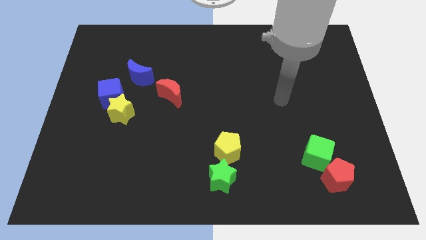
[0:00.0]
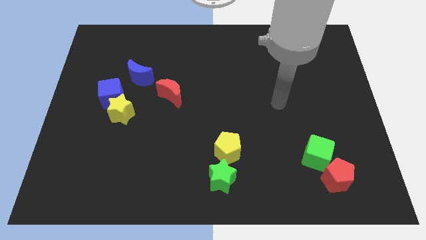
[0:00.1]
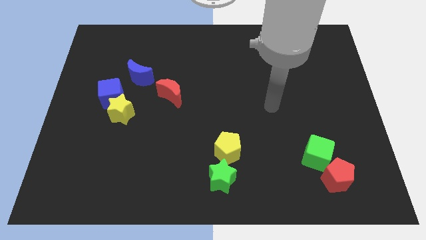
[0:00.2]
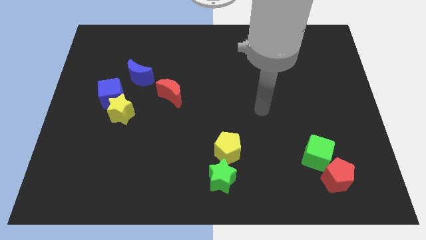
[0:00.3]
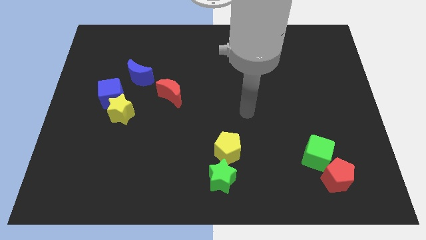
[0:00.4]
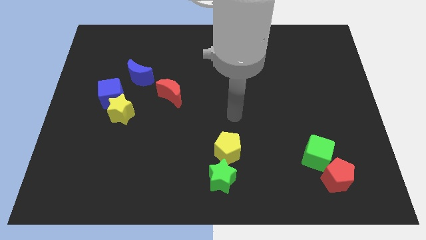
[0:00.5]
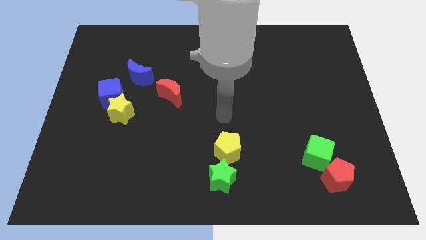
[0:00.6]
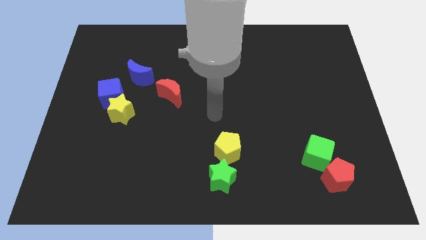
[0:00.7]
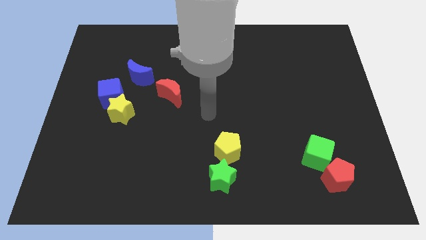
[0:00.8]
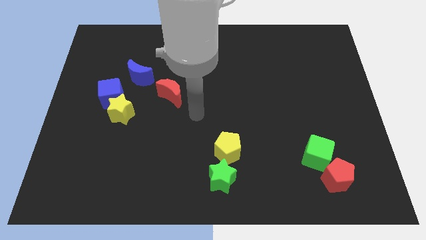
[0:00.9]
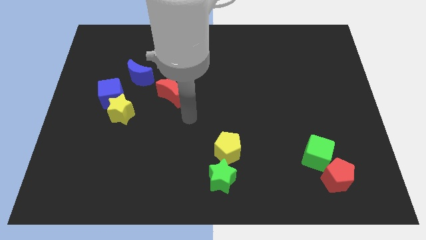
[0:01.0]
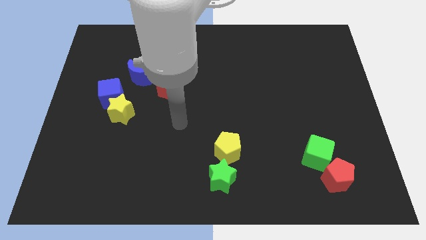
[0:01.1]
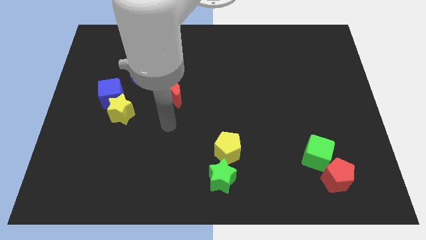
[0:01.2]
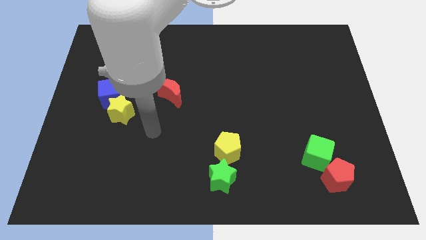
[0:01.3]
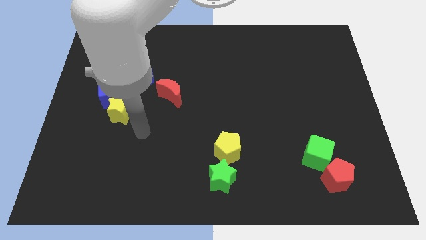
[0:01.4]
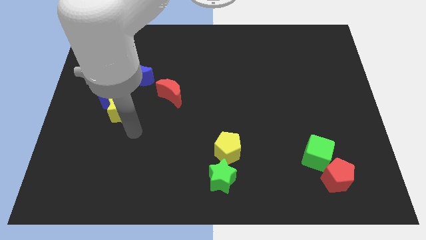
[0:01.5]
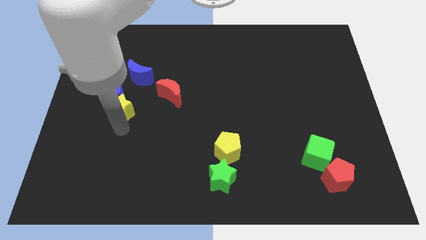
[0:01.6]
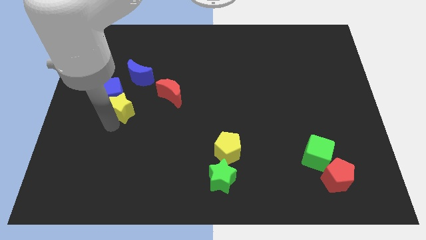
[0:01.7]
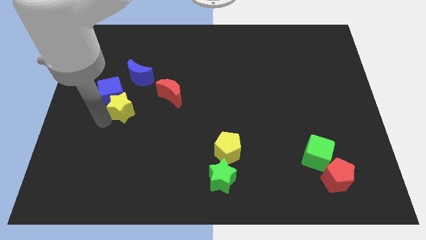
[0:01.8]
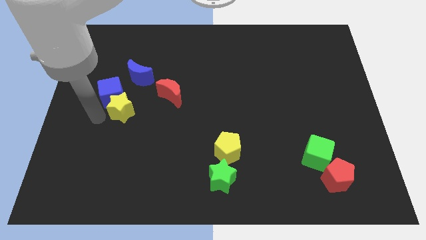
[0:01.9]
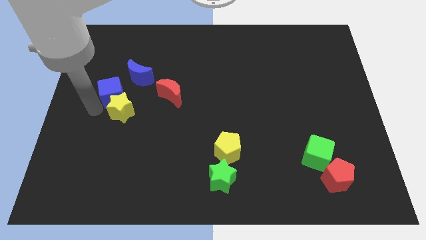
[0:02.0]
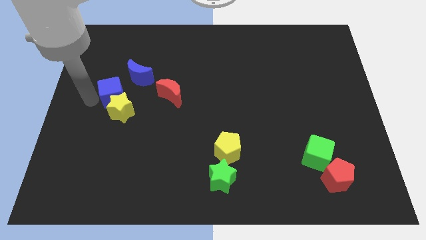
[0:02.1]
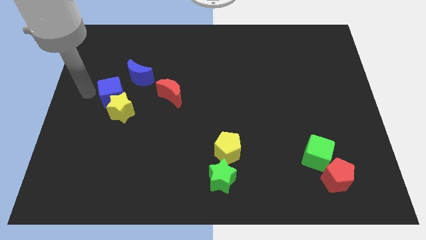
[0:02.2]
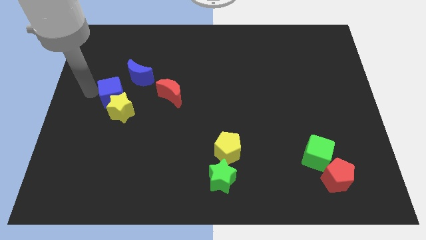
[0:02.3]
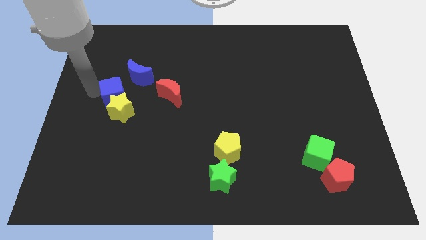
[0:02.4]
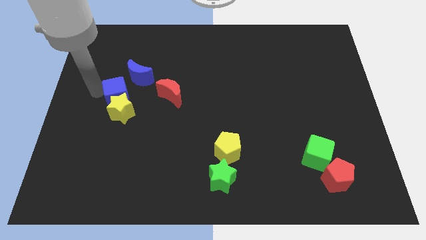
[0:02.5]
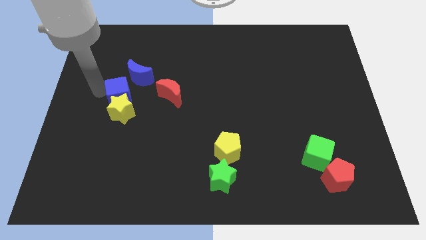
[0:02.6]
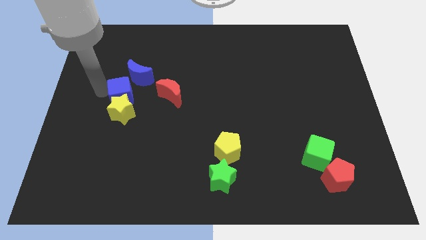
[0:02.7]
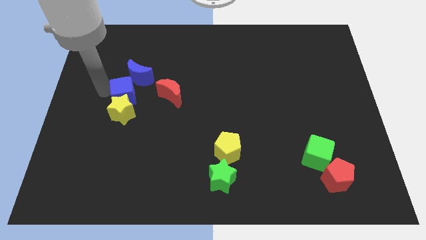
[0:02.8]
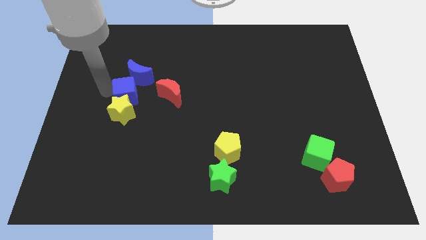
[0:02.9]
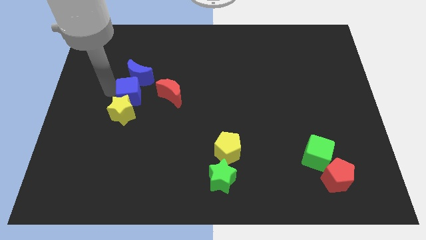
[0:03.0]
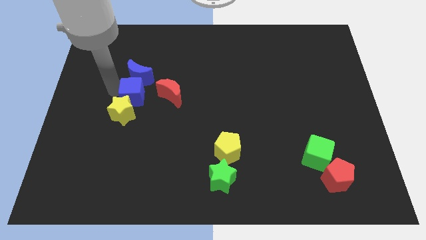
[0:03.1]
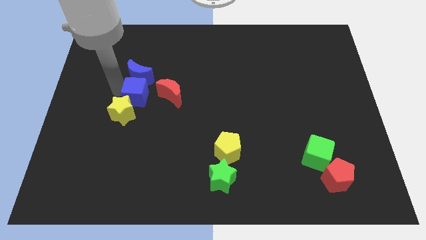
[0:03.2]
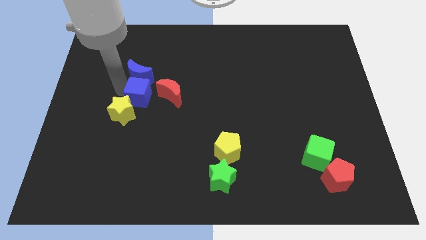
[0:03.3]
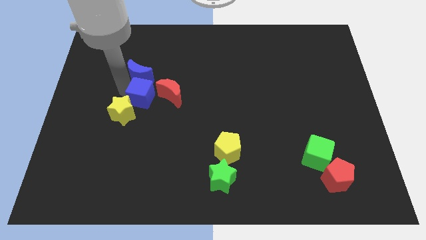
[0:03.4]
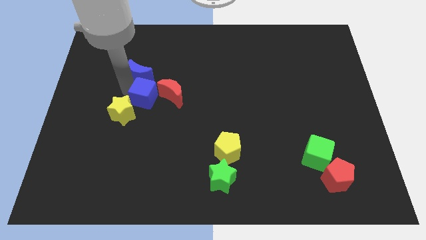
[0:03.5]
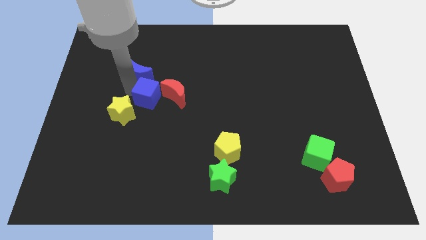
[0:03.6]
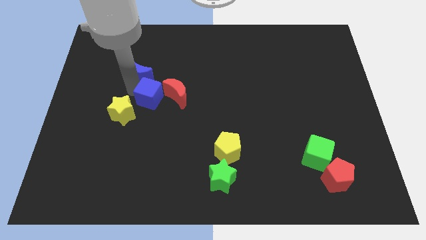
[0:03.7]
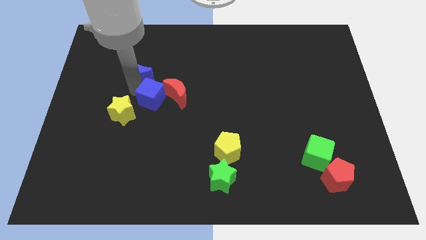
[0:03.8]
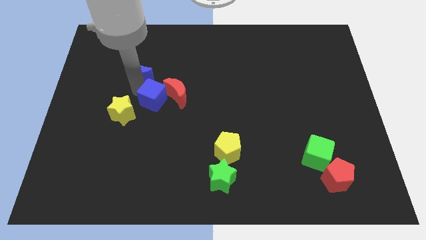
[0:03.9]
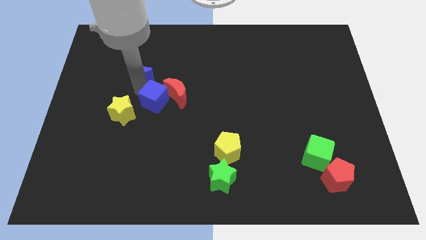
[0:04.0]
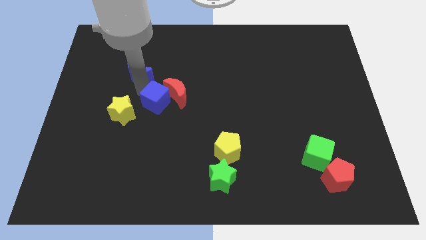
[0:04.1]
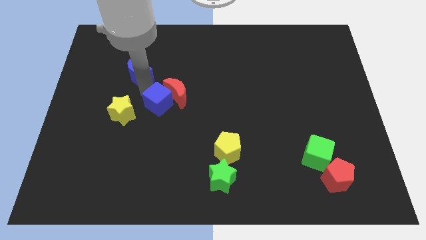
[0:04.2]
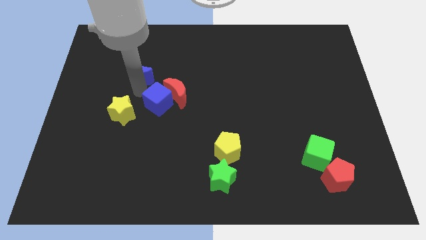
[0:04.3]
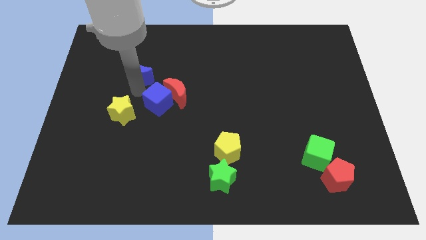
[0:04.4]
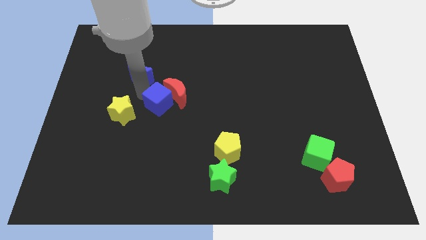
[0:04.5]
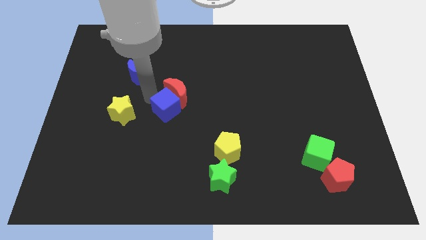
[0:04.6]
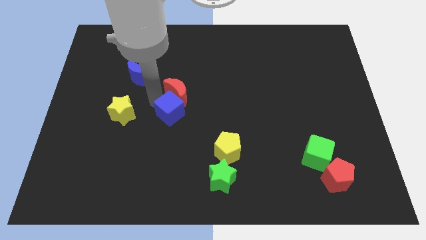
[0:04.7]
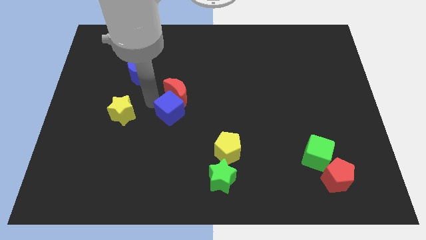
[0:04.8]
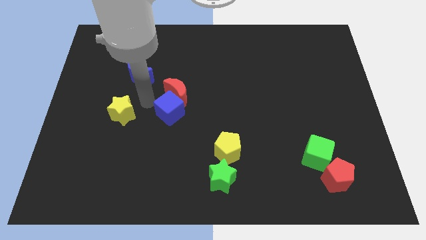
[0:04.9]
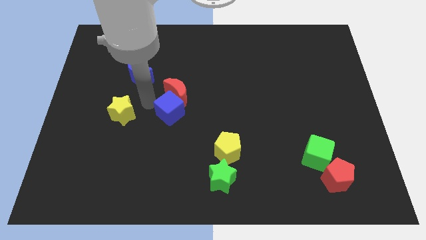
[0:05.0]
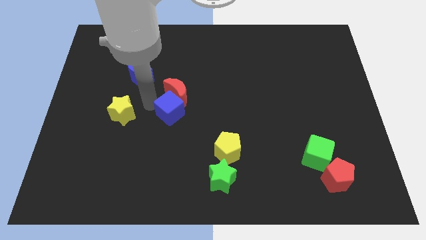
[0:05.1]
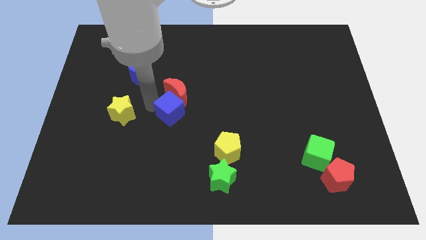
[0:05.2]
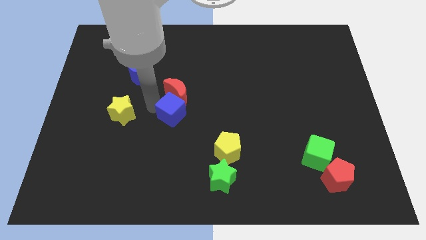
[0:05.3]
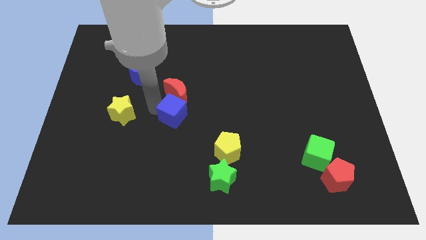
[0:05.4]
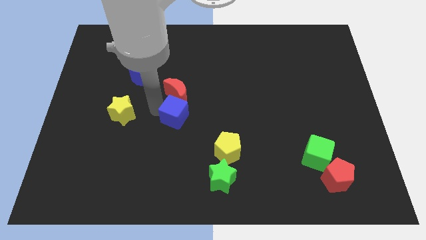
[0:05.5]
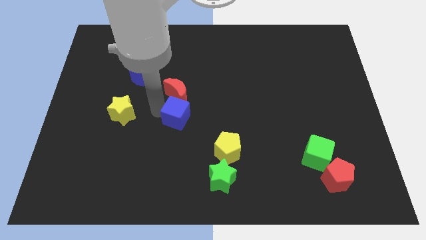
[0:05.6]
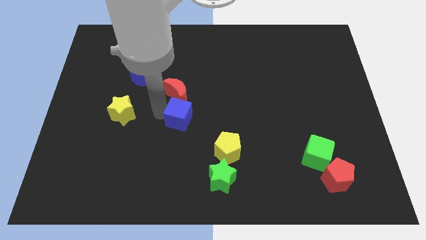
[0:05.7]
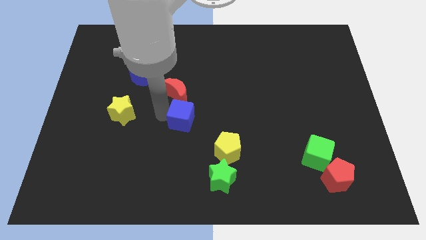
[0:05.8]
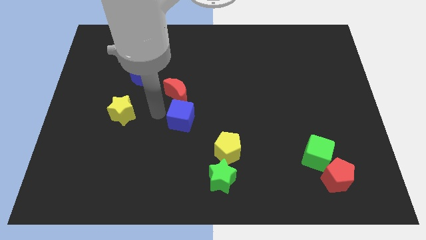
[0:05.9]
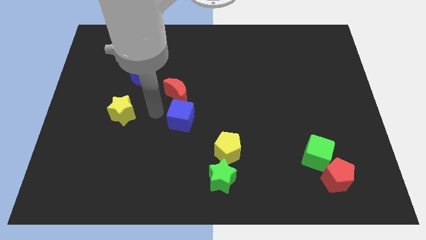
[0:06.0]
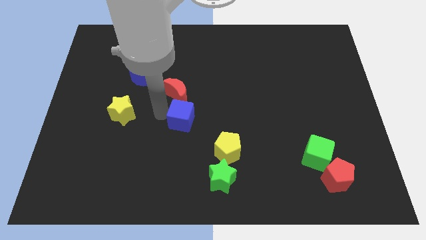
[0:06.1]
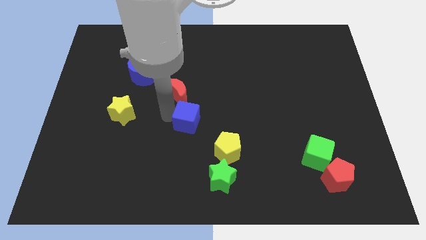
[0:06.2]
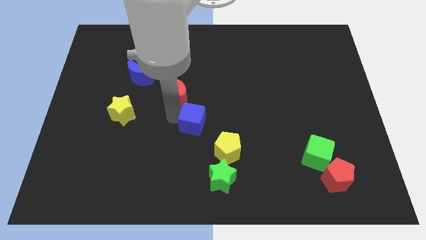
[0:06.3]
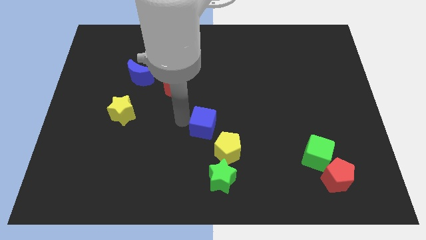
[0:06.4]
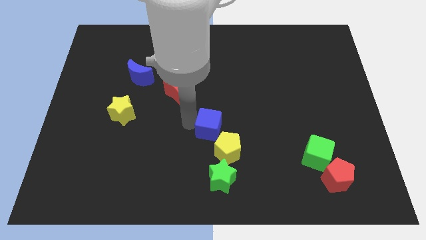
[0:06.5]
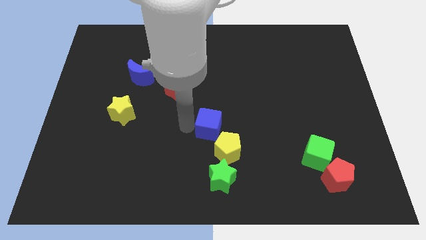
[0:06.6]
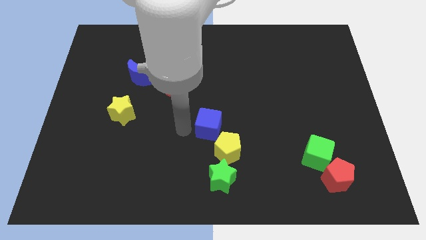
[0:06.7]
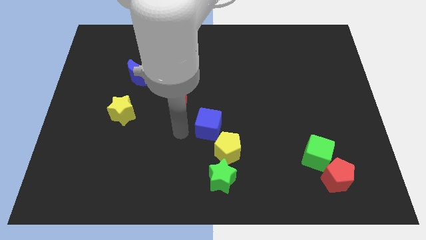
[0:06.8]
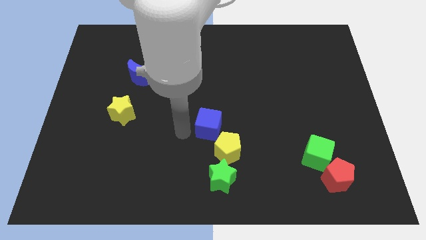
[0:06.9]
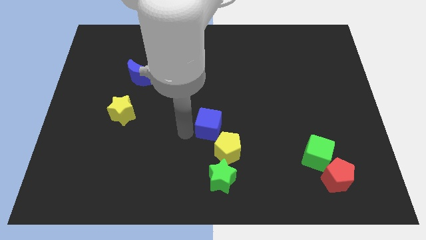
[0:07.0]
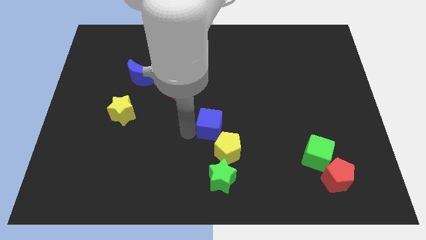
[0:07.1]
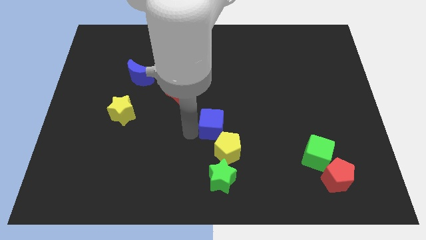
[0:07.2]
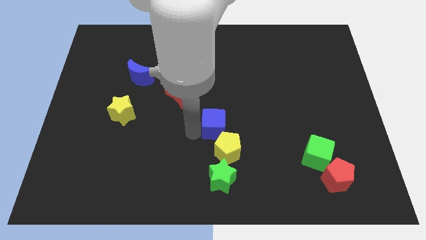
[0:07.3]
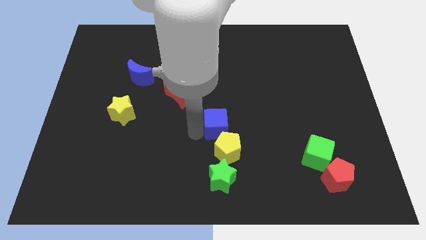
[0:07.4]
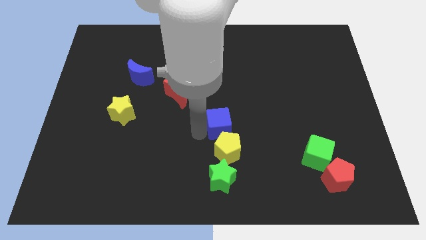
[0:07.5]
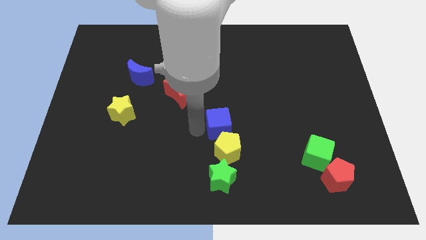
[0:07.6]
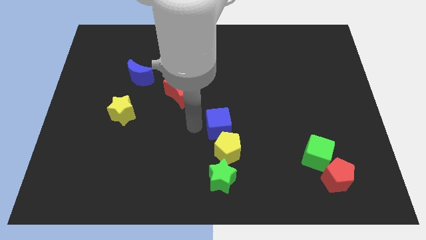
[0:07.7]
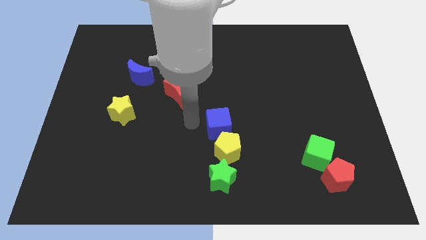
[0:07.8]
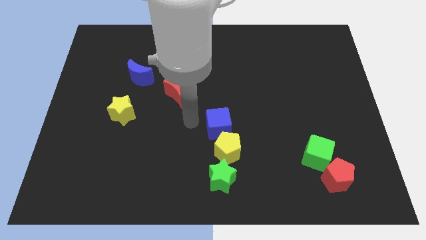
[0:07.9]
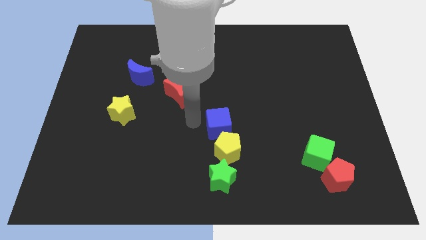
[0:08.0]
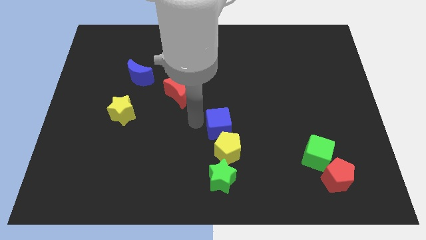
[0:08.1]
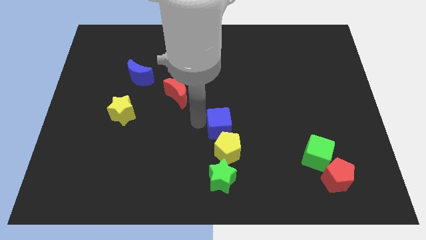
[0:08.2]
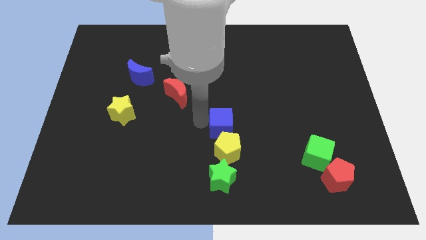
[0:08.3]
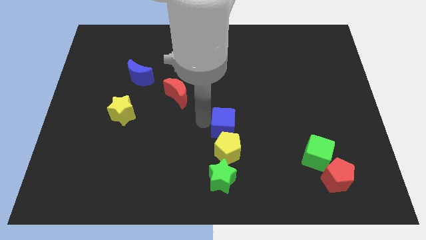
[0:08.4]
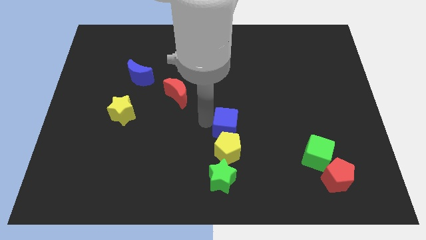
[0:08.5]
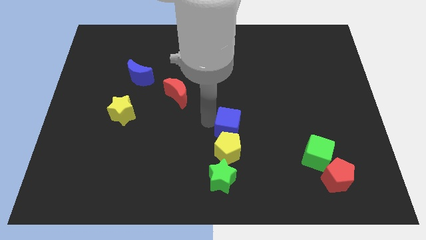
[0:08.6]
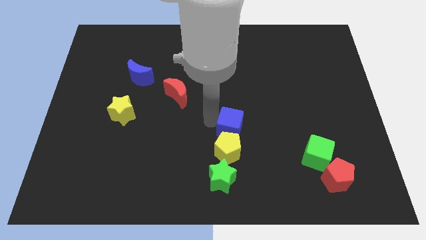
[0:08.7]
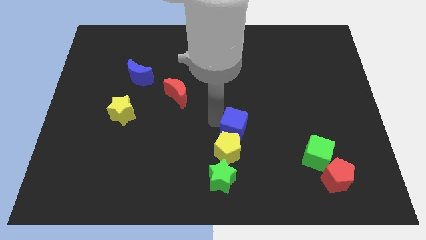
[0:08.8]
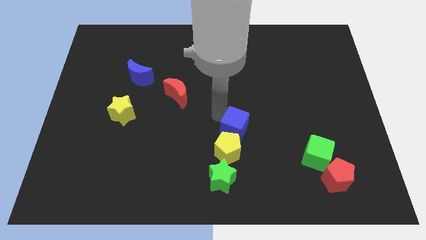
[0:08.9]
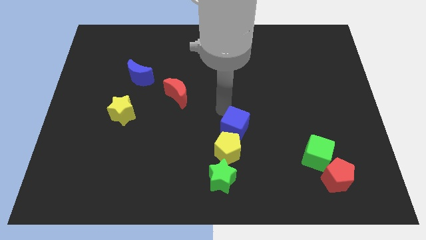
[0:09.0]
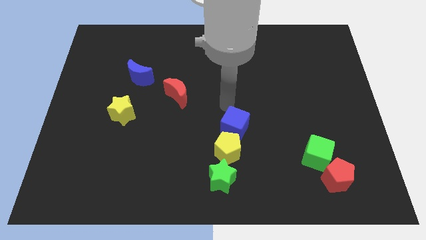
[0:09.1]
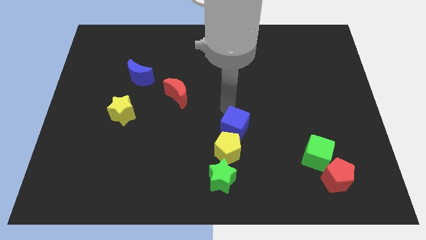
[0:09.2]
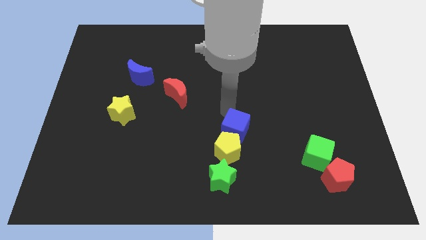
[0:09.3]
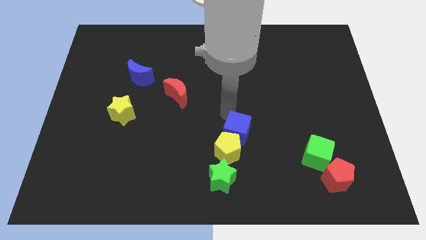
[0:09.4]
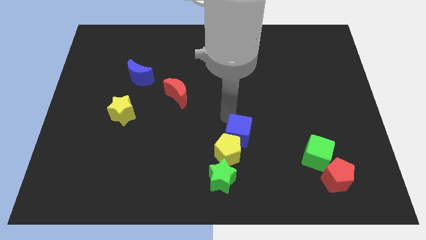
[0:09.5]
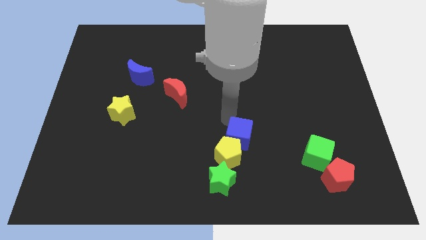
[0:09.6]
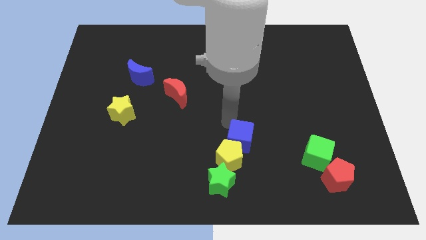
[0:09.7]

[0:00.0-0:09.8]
slide the blue cube to the top right of the green star
